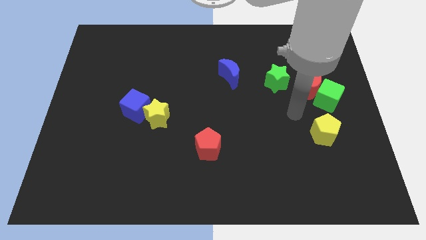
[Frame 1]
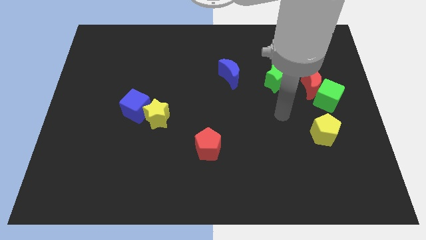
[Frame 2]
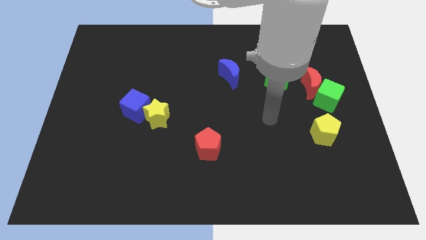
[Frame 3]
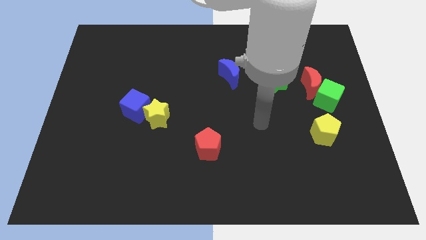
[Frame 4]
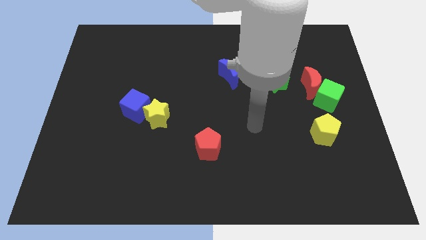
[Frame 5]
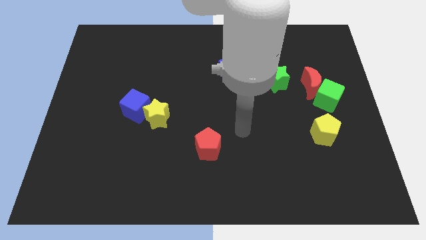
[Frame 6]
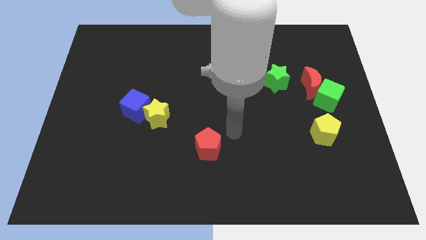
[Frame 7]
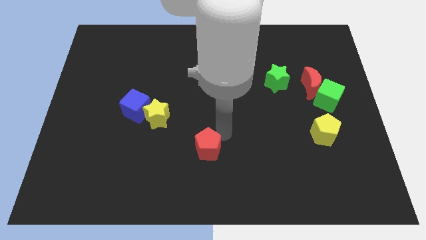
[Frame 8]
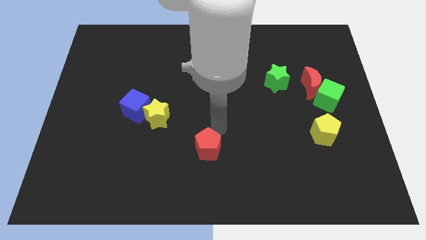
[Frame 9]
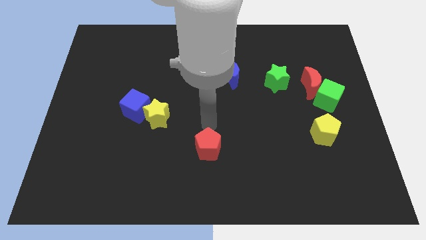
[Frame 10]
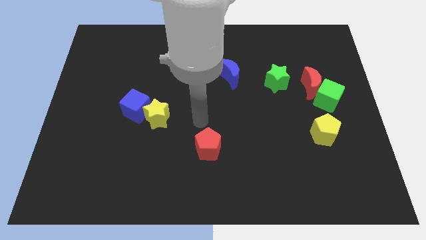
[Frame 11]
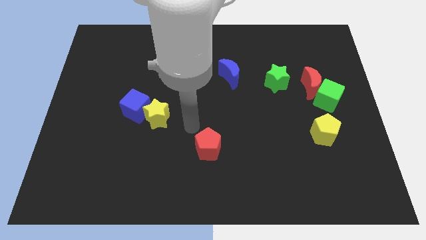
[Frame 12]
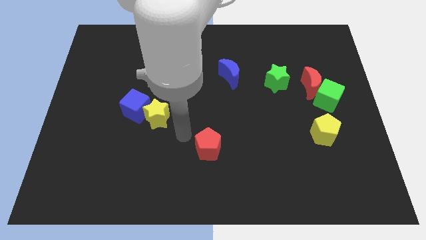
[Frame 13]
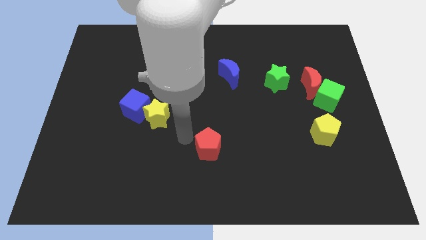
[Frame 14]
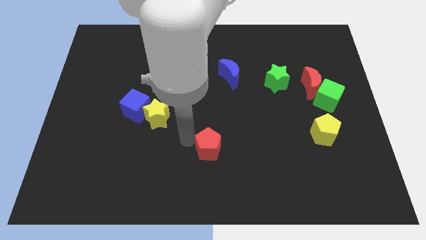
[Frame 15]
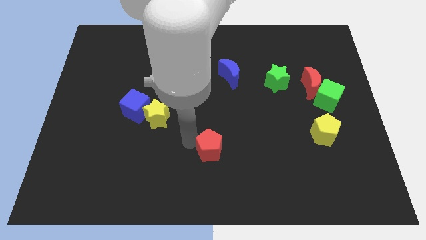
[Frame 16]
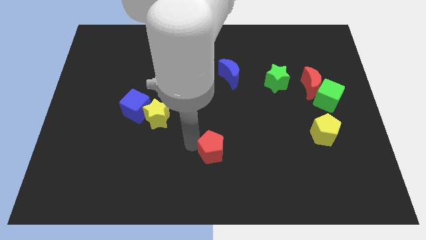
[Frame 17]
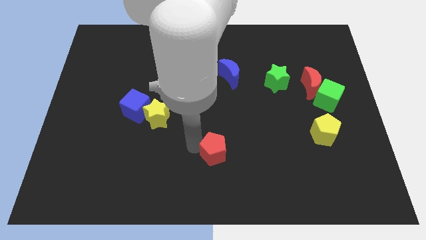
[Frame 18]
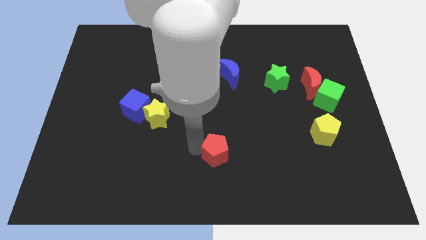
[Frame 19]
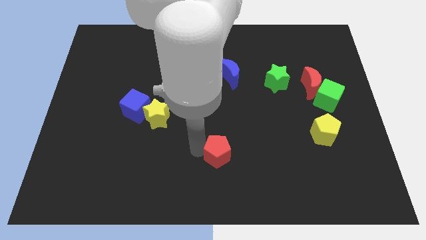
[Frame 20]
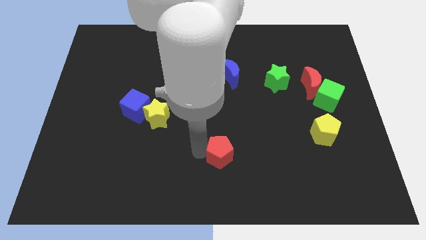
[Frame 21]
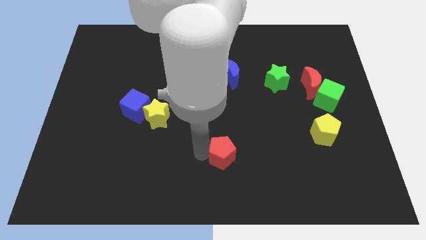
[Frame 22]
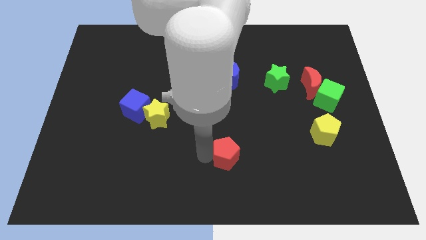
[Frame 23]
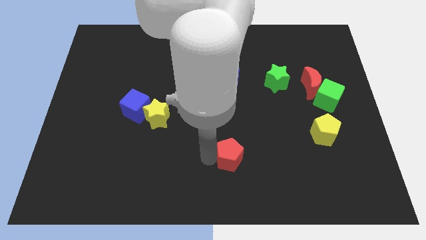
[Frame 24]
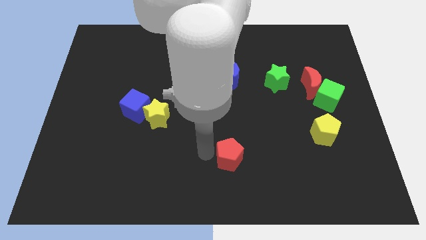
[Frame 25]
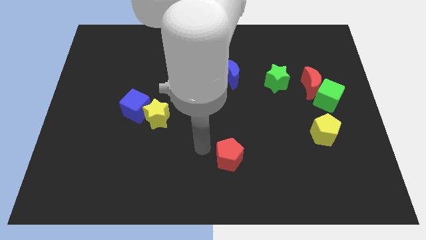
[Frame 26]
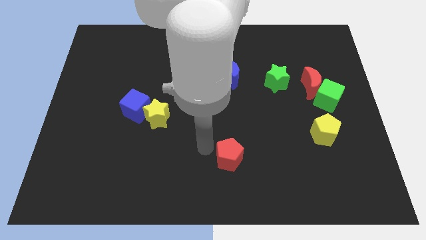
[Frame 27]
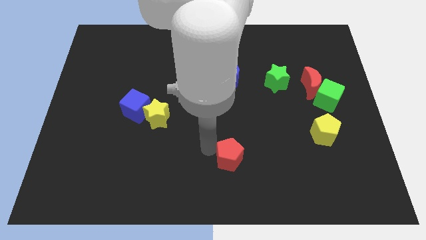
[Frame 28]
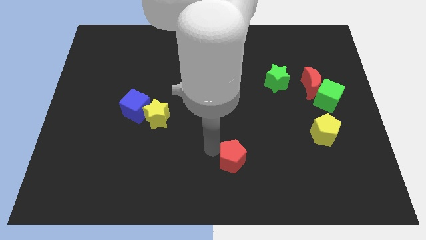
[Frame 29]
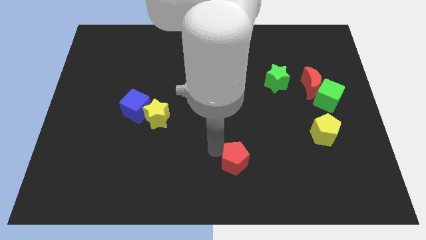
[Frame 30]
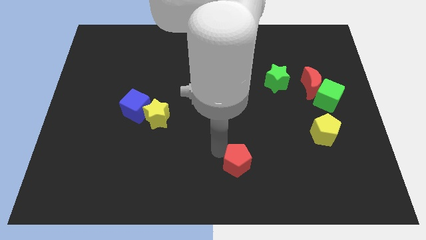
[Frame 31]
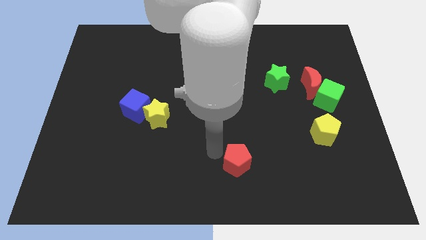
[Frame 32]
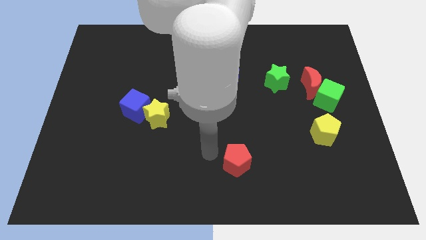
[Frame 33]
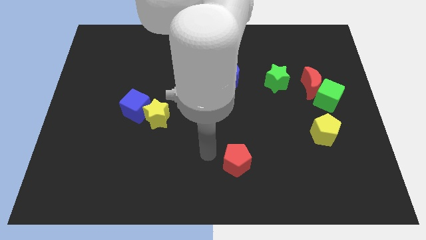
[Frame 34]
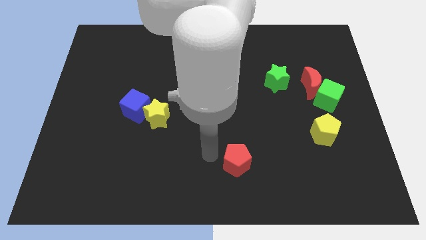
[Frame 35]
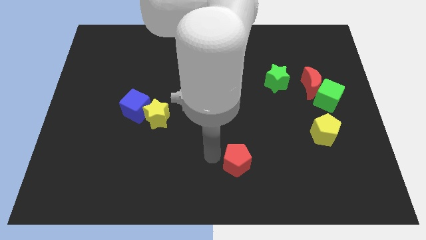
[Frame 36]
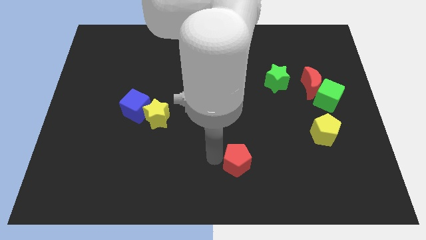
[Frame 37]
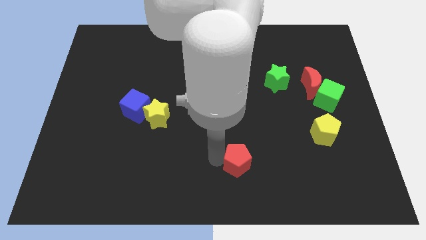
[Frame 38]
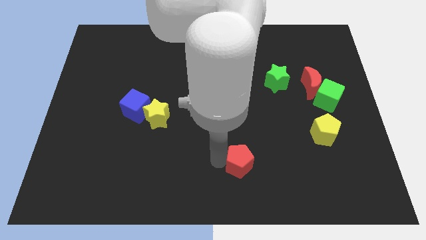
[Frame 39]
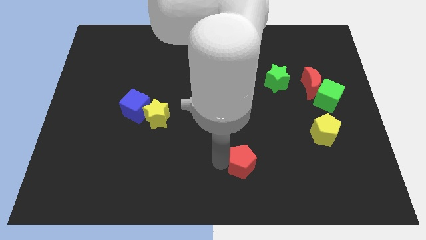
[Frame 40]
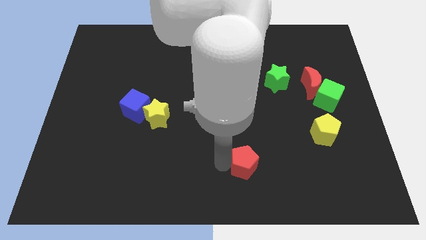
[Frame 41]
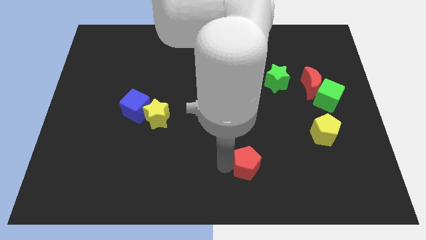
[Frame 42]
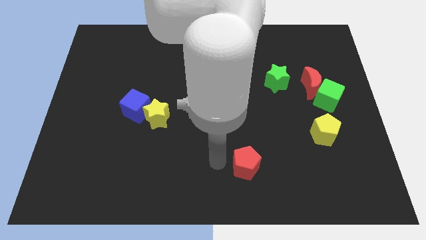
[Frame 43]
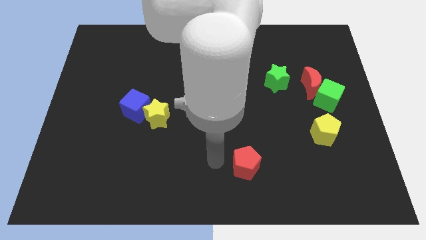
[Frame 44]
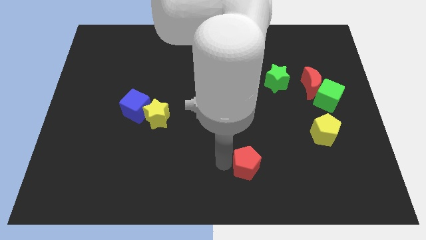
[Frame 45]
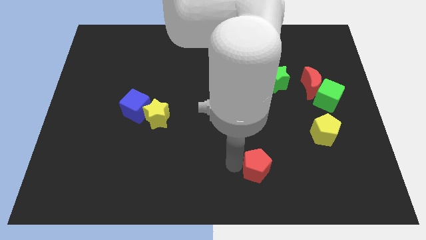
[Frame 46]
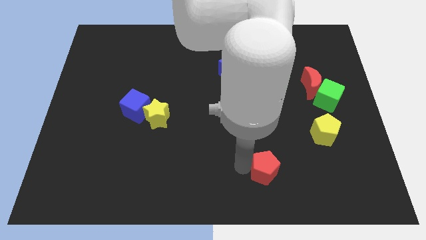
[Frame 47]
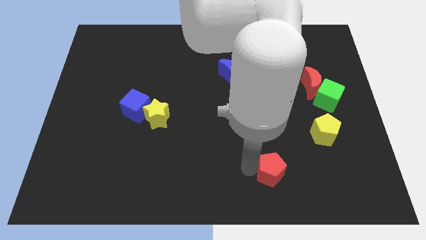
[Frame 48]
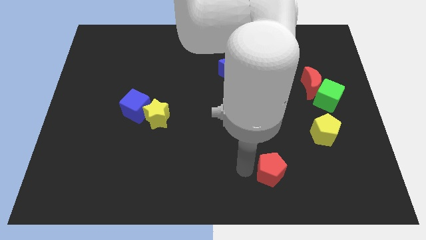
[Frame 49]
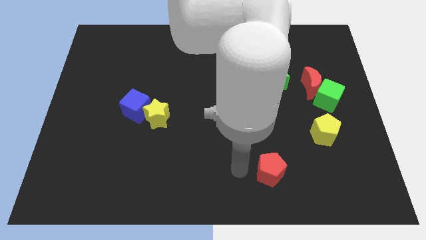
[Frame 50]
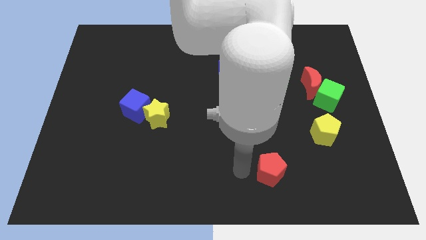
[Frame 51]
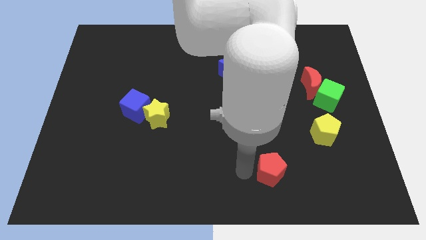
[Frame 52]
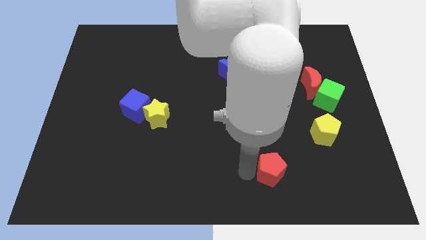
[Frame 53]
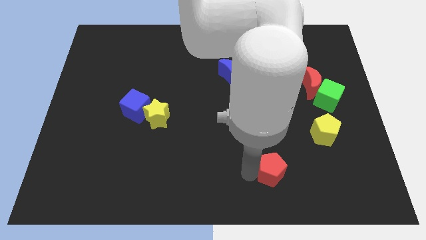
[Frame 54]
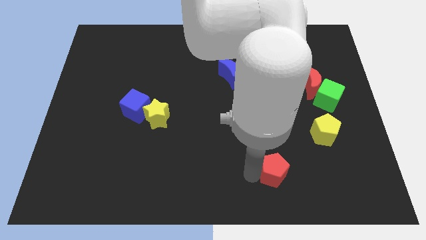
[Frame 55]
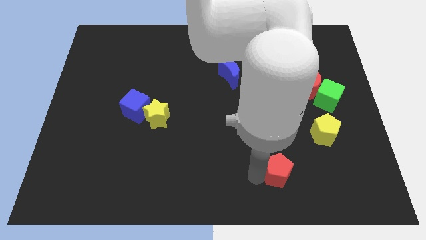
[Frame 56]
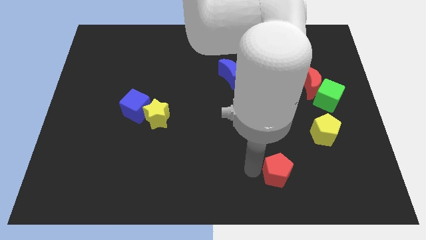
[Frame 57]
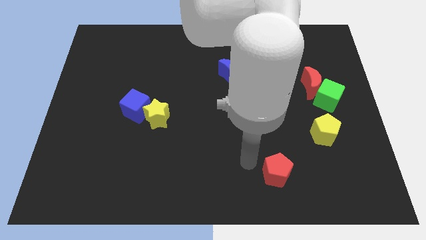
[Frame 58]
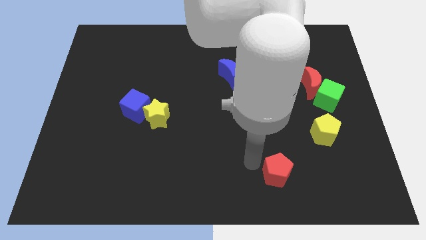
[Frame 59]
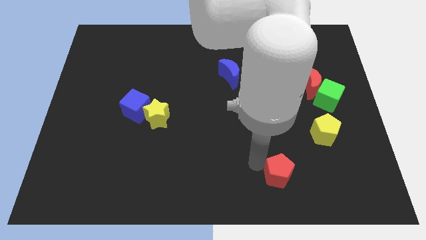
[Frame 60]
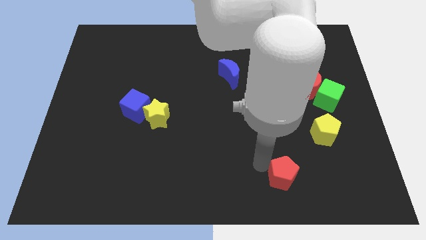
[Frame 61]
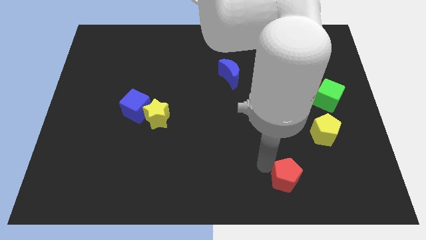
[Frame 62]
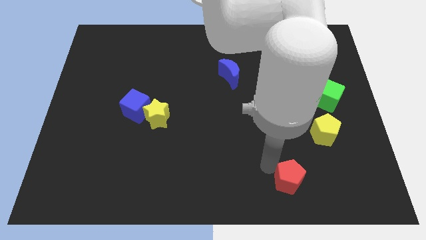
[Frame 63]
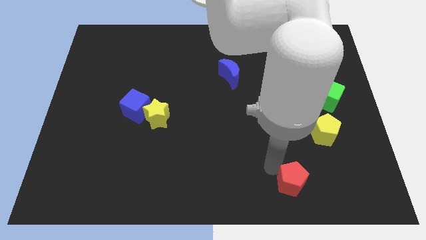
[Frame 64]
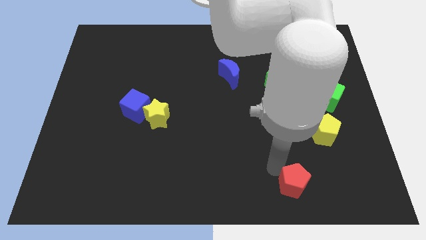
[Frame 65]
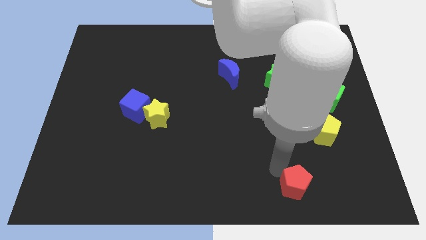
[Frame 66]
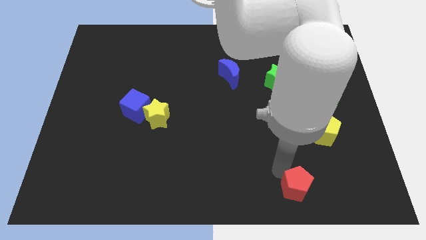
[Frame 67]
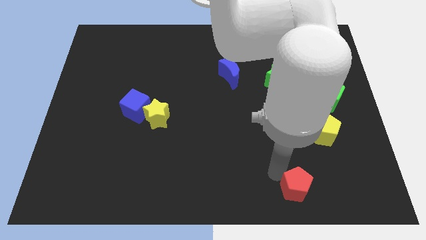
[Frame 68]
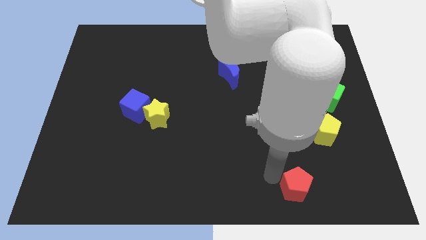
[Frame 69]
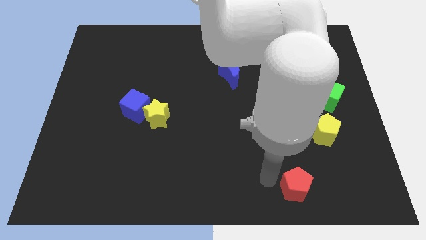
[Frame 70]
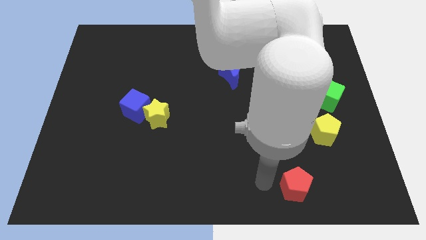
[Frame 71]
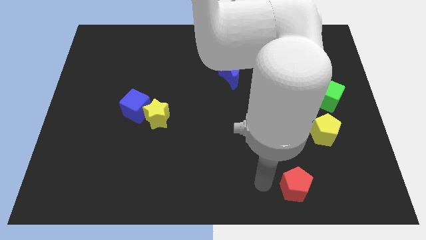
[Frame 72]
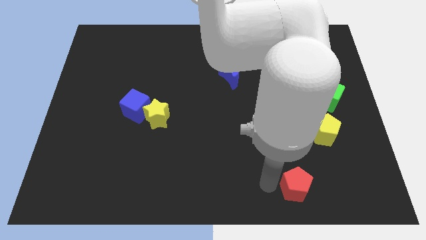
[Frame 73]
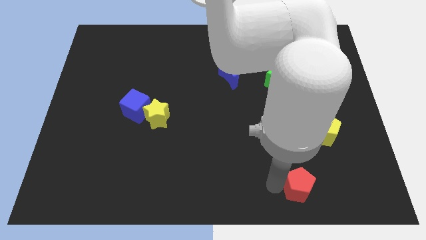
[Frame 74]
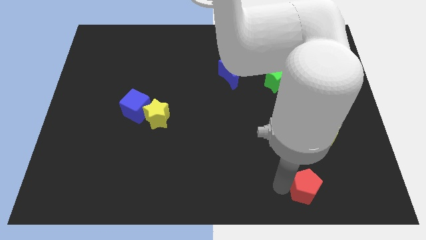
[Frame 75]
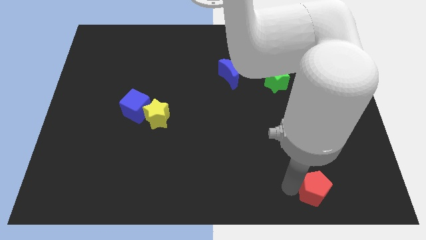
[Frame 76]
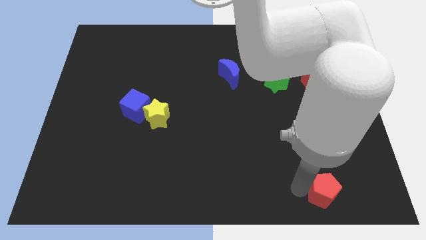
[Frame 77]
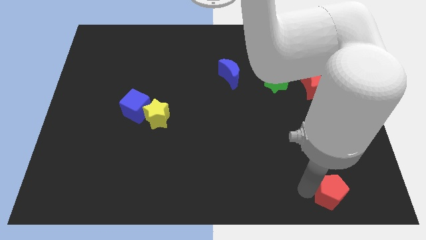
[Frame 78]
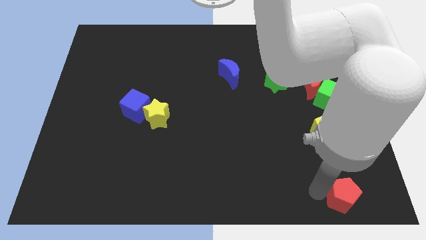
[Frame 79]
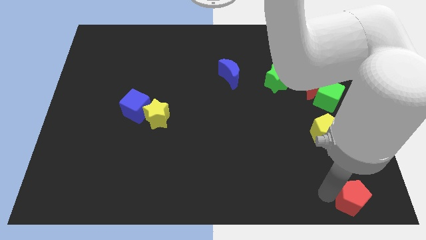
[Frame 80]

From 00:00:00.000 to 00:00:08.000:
slide the red pentagon to the bottom right
